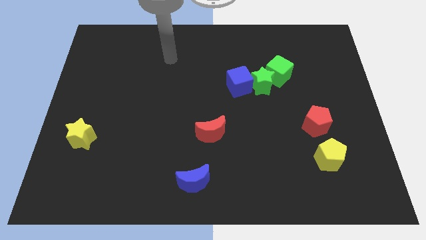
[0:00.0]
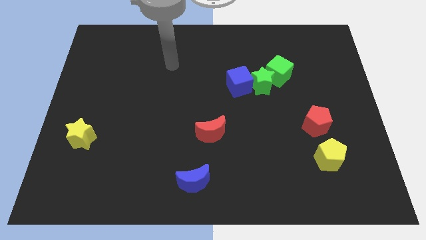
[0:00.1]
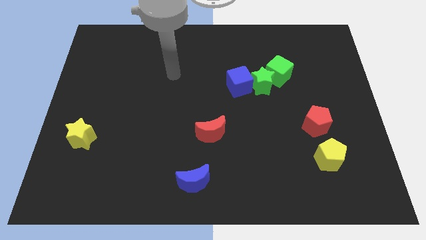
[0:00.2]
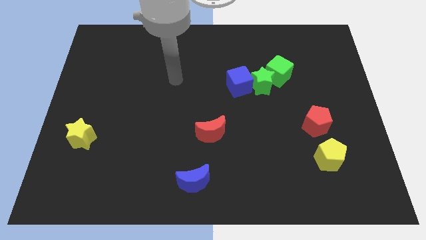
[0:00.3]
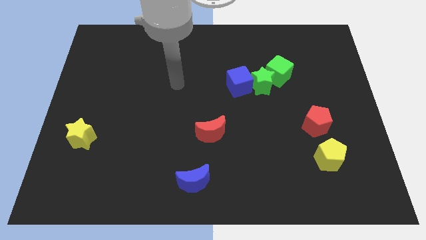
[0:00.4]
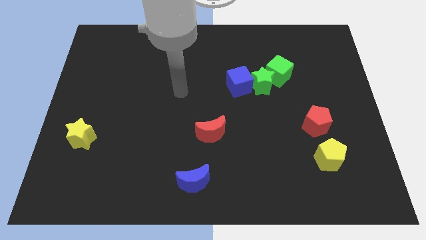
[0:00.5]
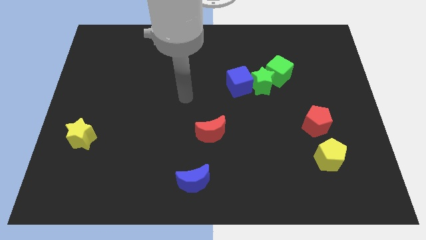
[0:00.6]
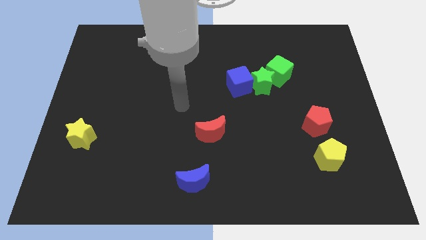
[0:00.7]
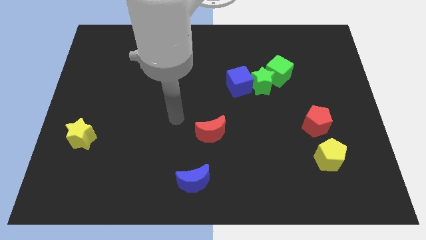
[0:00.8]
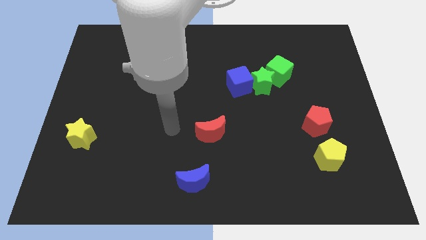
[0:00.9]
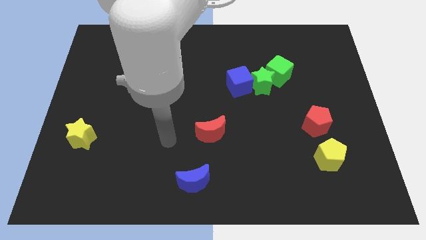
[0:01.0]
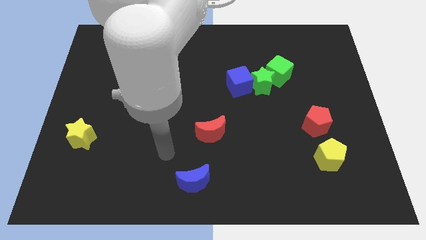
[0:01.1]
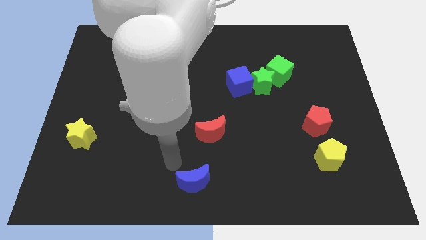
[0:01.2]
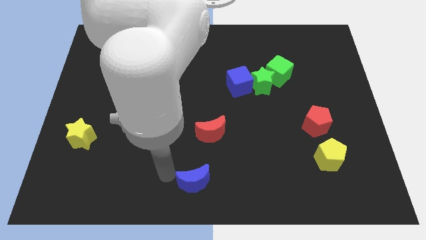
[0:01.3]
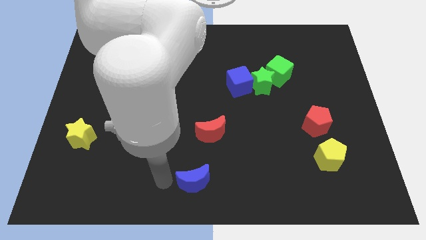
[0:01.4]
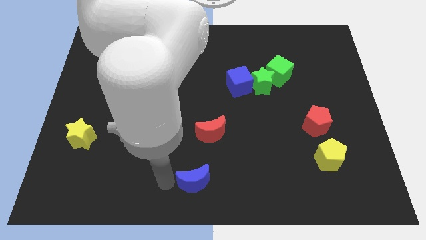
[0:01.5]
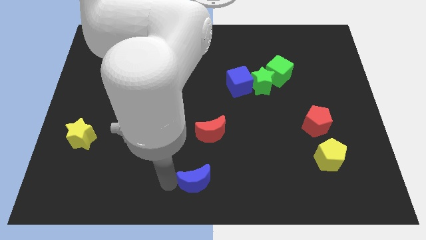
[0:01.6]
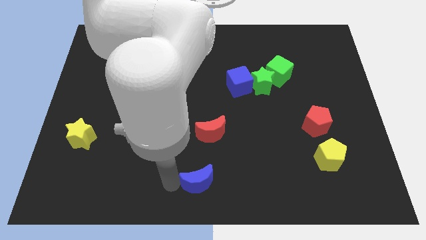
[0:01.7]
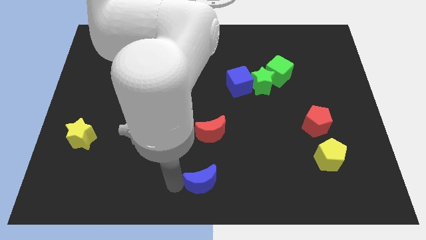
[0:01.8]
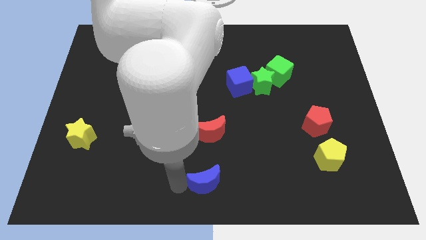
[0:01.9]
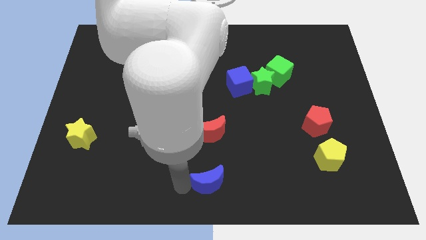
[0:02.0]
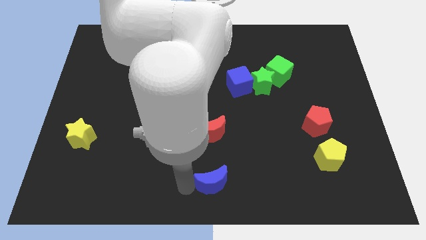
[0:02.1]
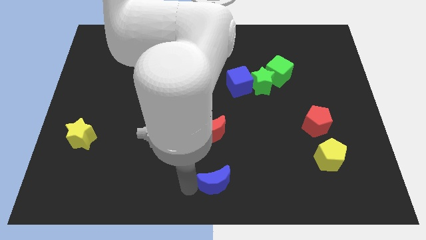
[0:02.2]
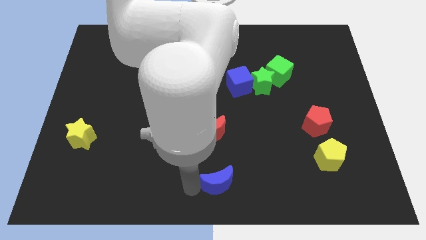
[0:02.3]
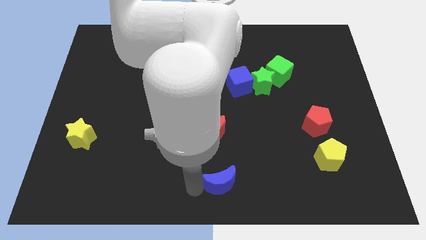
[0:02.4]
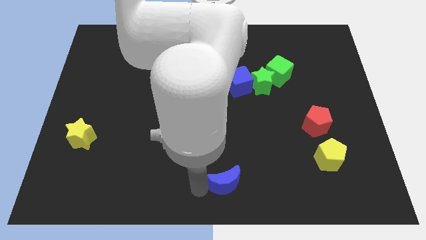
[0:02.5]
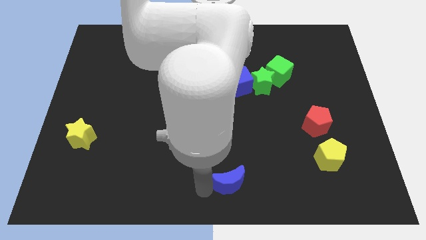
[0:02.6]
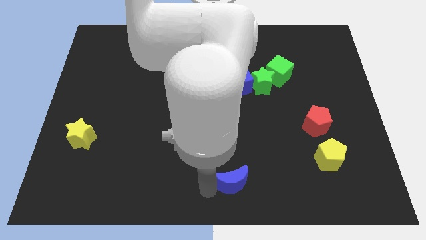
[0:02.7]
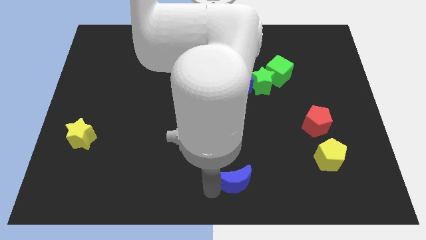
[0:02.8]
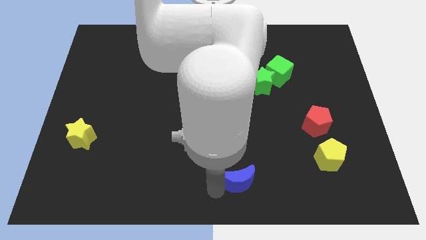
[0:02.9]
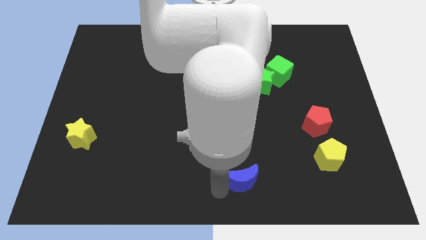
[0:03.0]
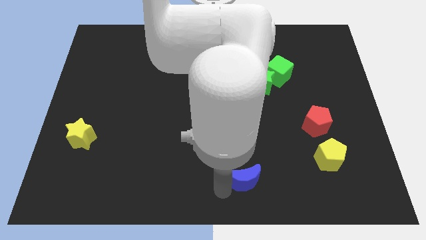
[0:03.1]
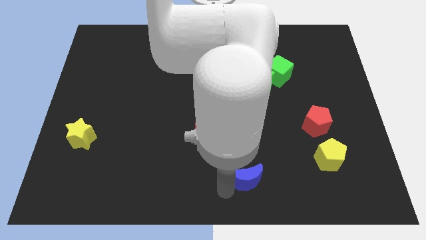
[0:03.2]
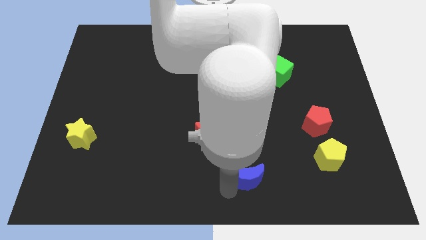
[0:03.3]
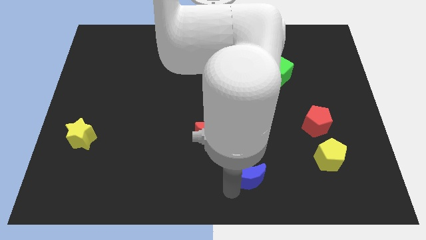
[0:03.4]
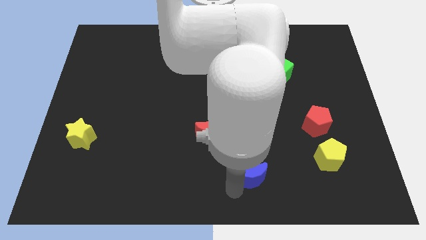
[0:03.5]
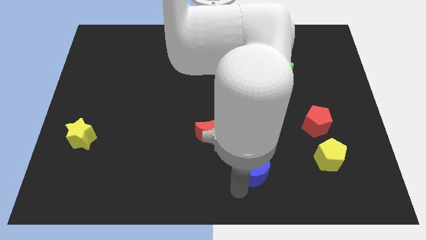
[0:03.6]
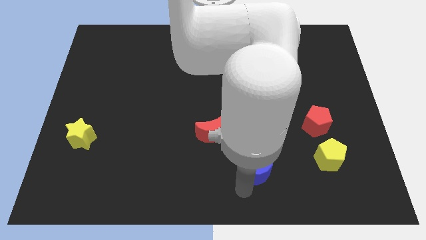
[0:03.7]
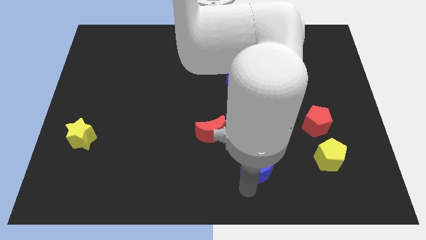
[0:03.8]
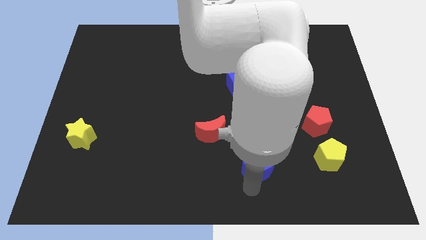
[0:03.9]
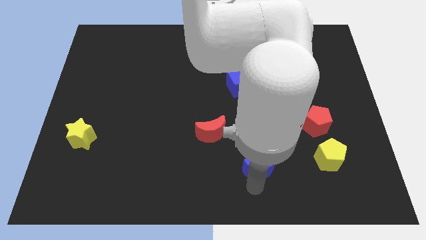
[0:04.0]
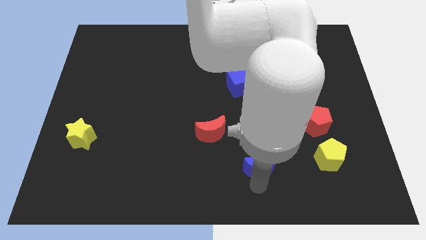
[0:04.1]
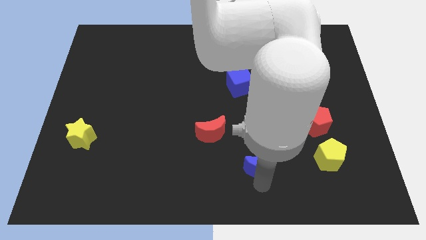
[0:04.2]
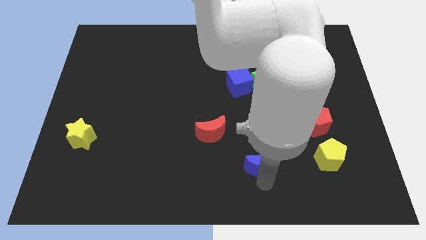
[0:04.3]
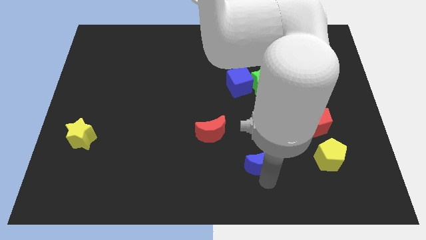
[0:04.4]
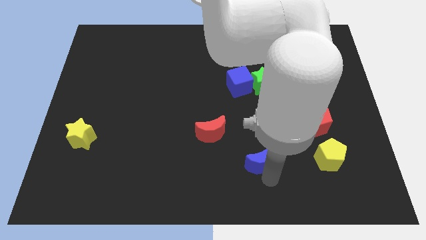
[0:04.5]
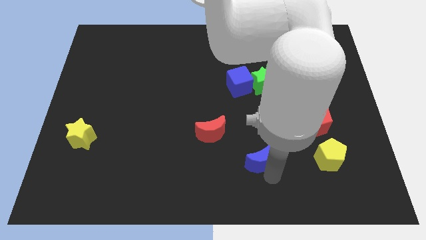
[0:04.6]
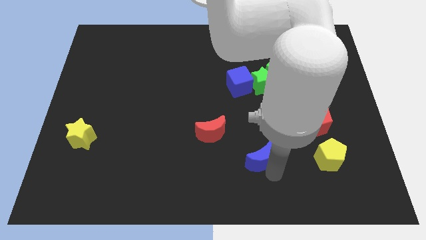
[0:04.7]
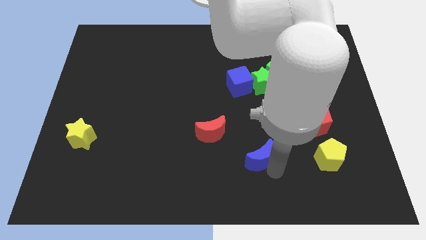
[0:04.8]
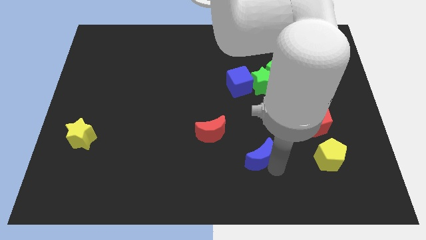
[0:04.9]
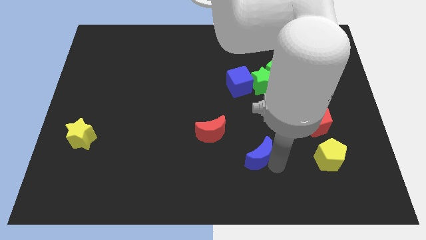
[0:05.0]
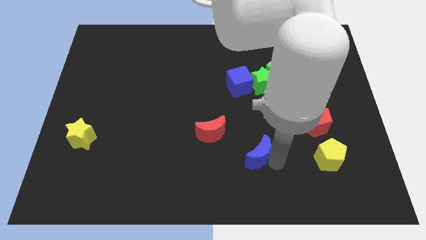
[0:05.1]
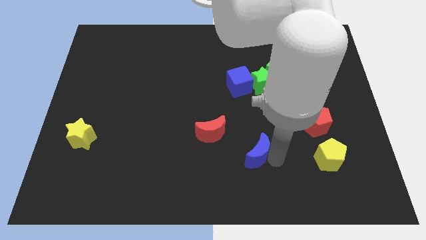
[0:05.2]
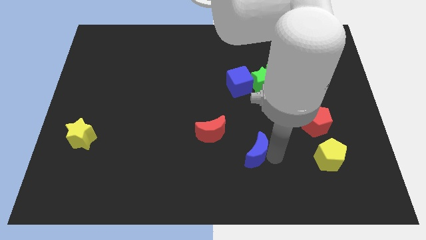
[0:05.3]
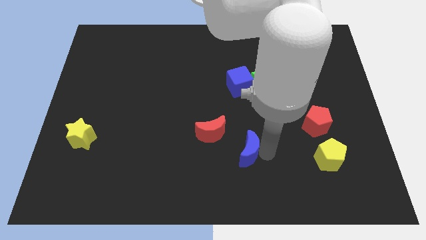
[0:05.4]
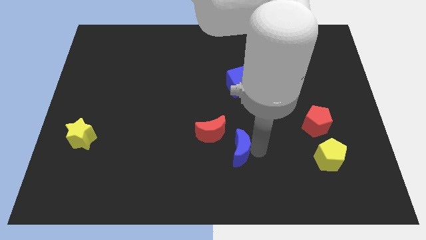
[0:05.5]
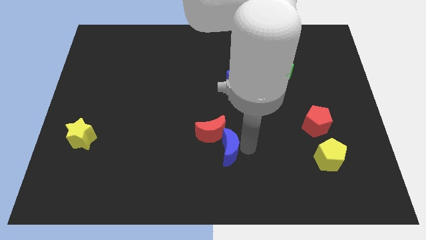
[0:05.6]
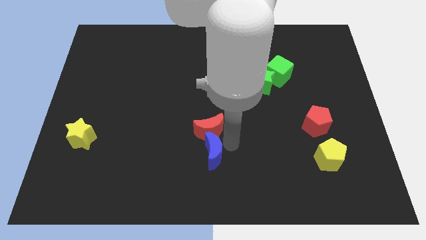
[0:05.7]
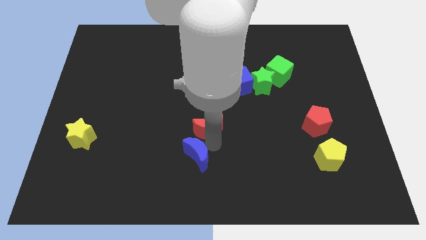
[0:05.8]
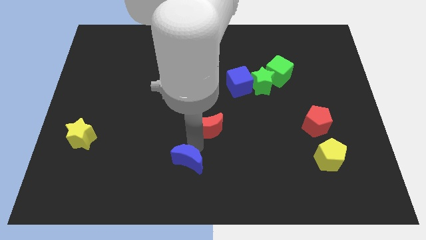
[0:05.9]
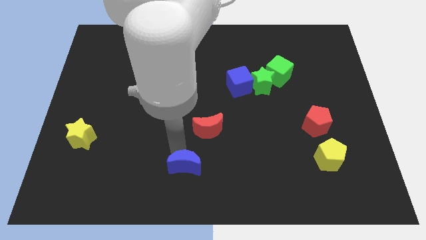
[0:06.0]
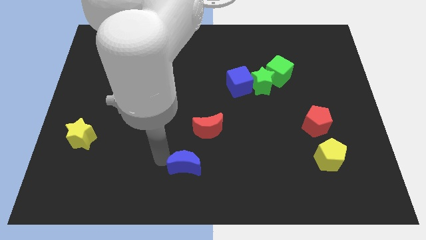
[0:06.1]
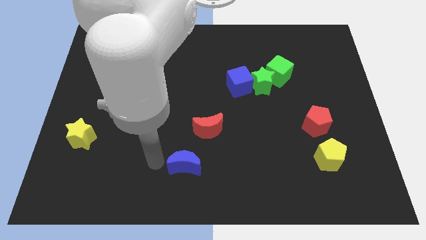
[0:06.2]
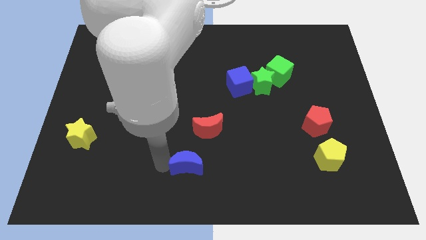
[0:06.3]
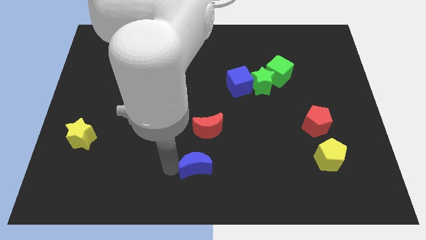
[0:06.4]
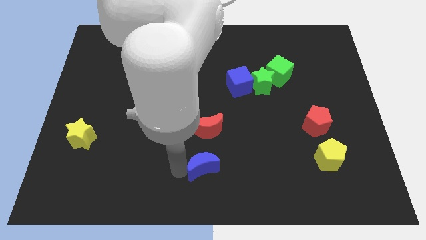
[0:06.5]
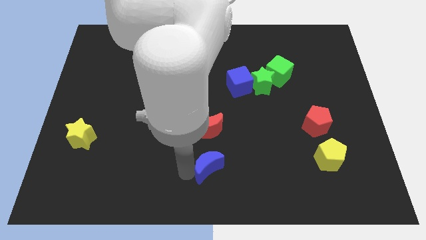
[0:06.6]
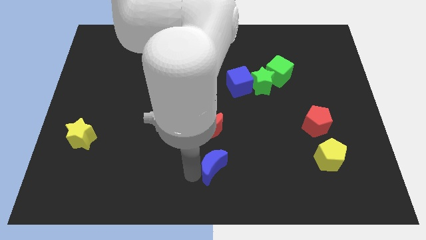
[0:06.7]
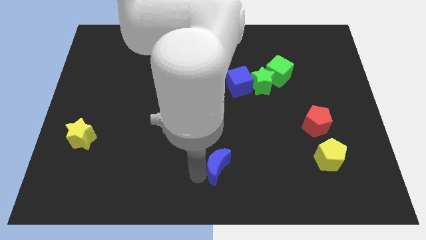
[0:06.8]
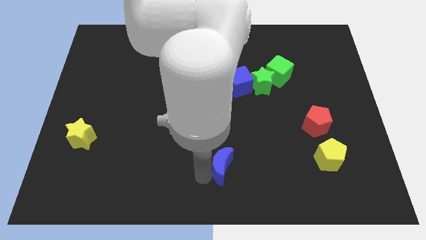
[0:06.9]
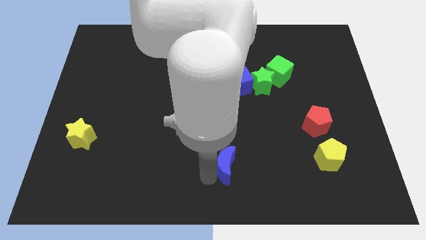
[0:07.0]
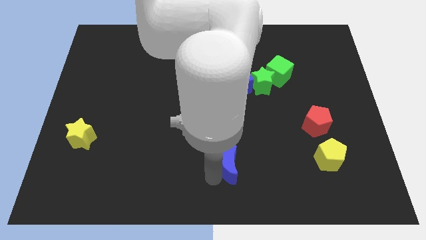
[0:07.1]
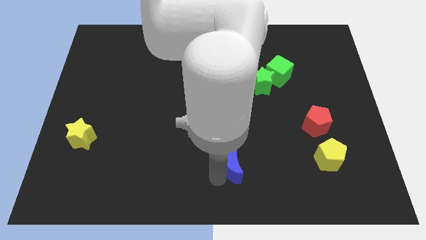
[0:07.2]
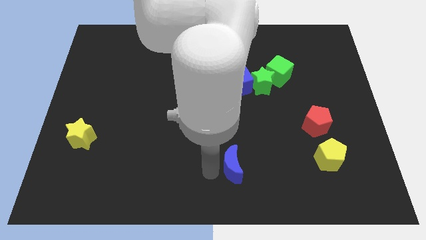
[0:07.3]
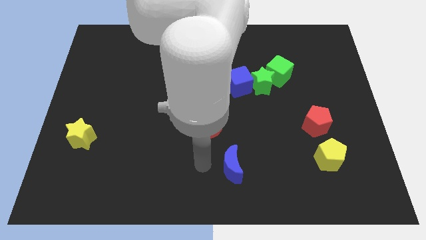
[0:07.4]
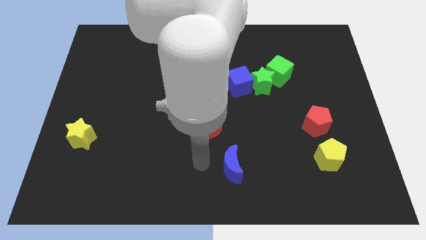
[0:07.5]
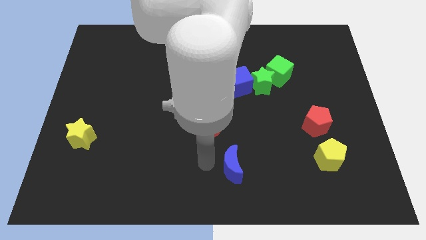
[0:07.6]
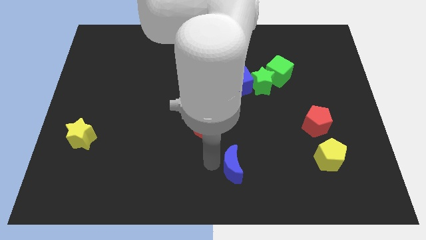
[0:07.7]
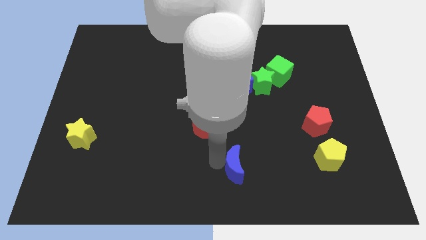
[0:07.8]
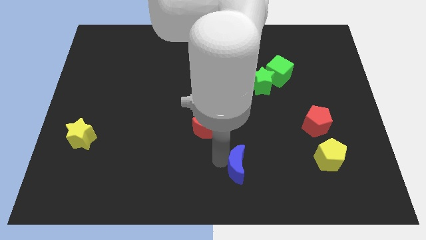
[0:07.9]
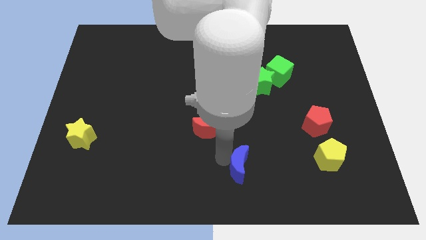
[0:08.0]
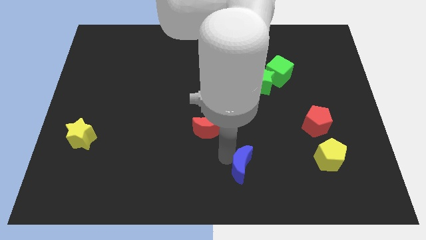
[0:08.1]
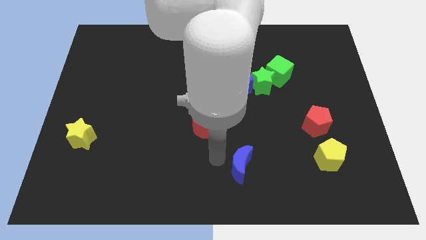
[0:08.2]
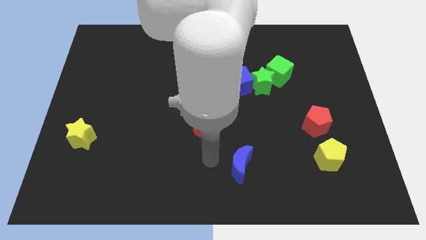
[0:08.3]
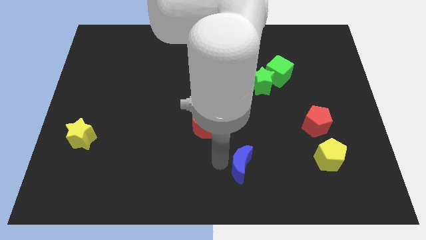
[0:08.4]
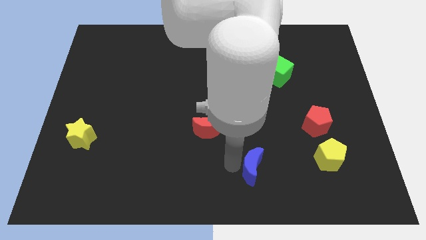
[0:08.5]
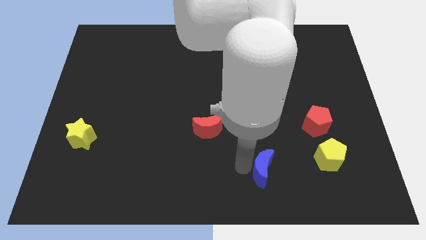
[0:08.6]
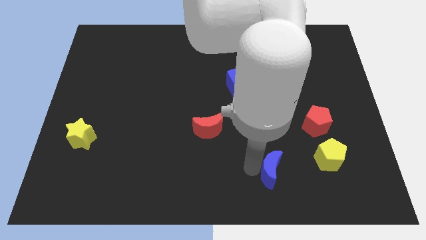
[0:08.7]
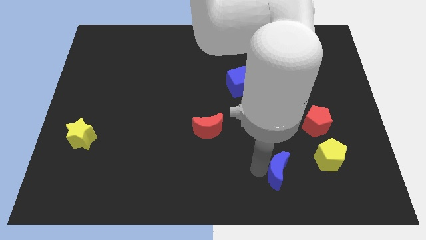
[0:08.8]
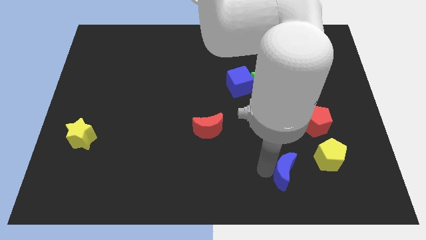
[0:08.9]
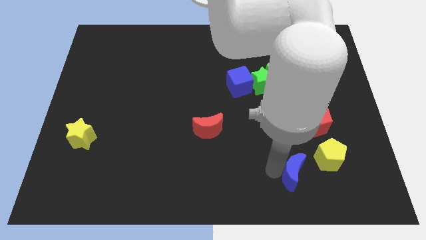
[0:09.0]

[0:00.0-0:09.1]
slide the blue moon right
